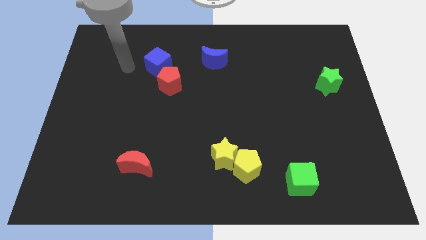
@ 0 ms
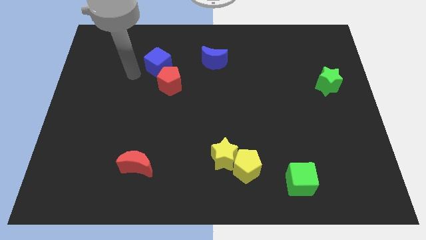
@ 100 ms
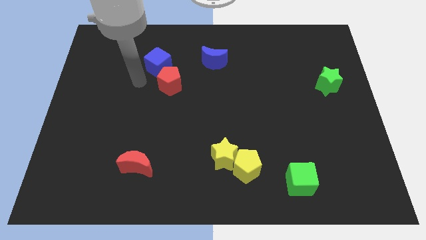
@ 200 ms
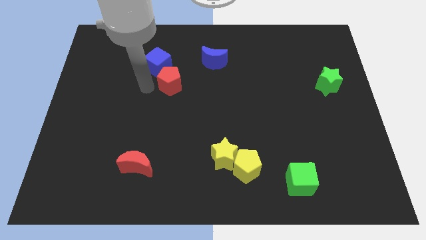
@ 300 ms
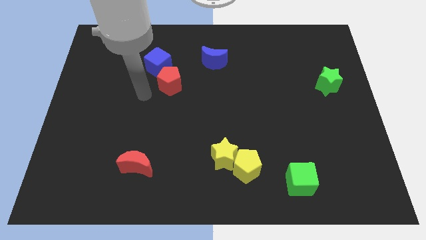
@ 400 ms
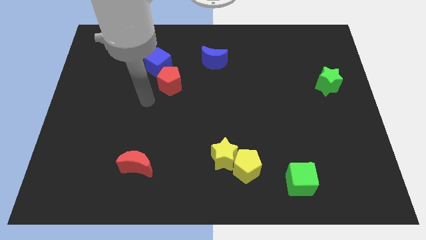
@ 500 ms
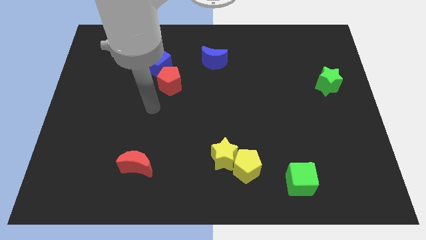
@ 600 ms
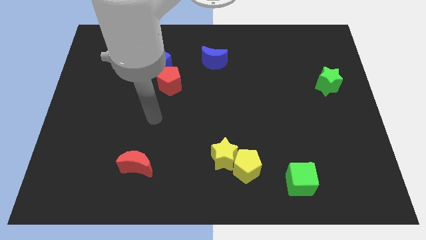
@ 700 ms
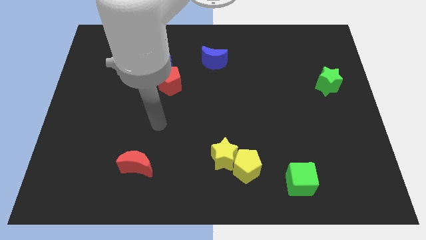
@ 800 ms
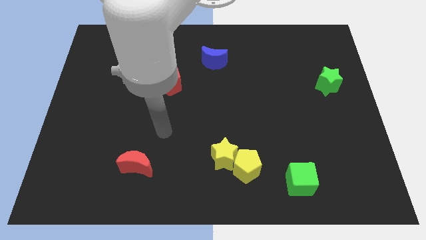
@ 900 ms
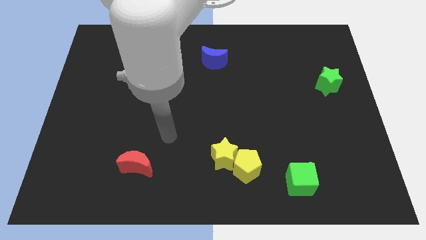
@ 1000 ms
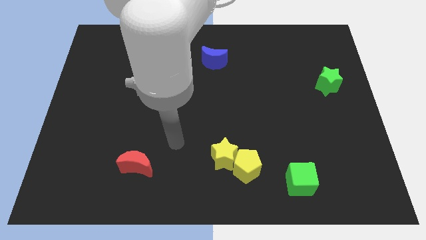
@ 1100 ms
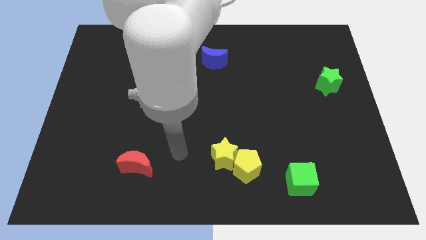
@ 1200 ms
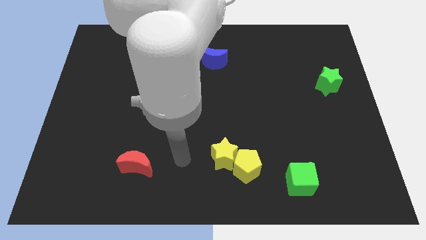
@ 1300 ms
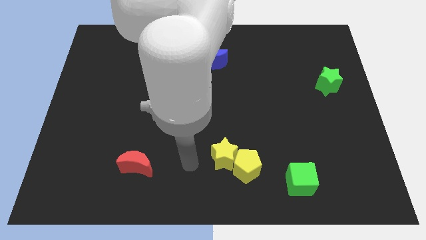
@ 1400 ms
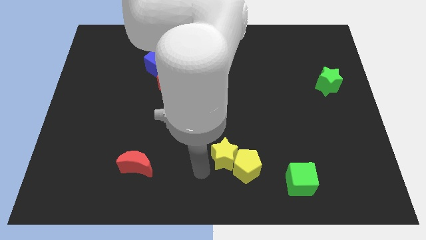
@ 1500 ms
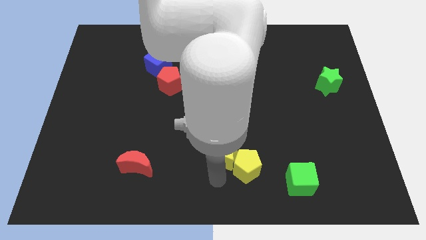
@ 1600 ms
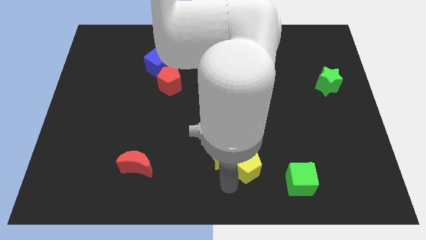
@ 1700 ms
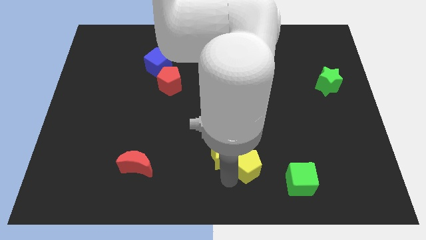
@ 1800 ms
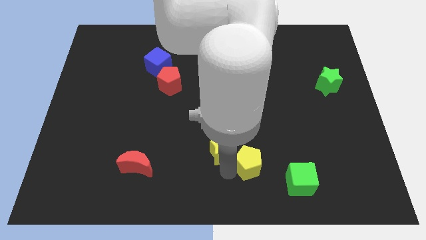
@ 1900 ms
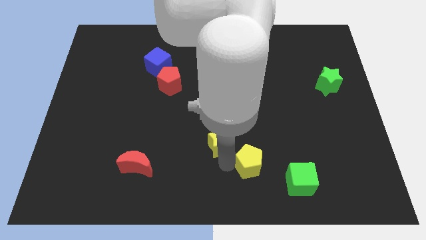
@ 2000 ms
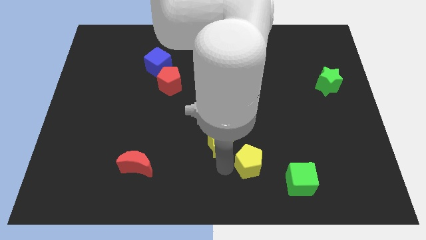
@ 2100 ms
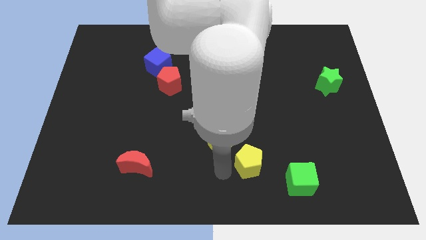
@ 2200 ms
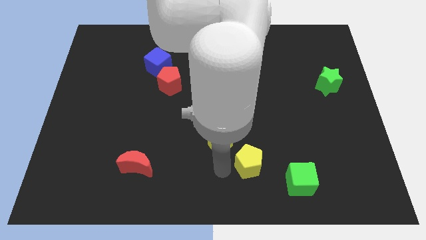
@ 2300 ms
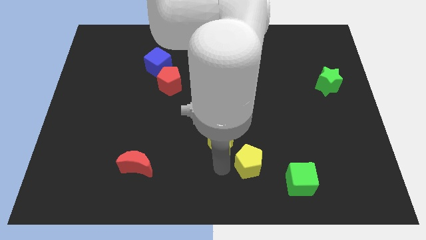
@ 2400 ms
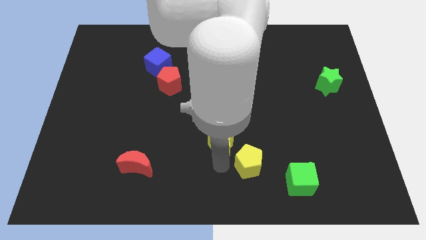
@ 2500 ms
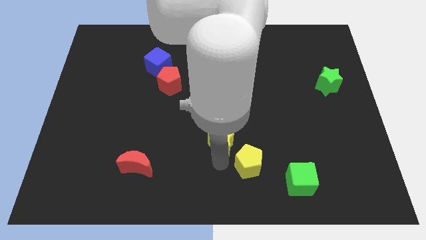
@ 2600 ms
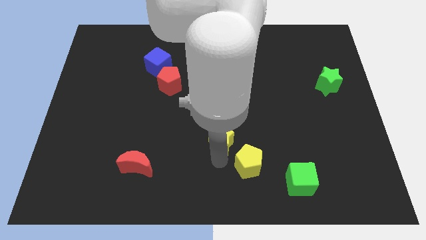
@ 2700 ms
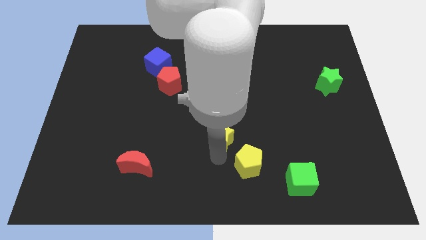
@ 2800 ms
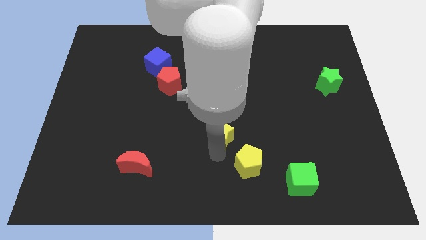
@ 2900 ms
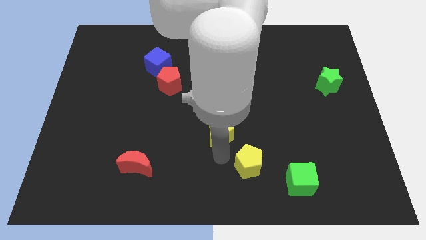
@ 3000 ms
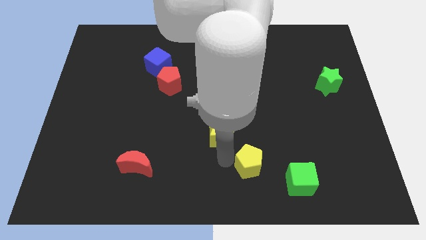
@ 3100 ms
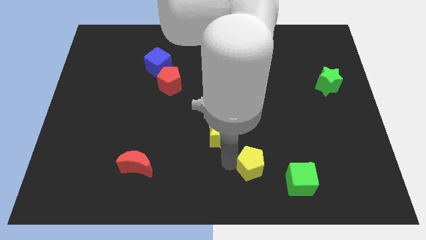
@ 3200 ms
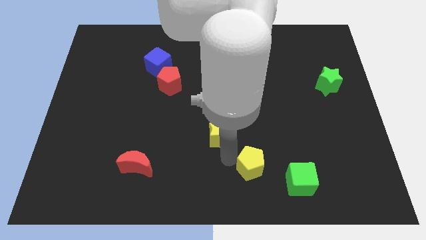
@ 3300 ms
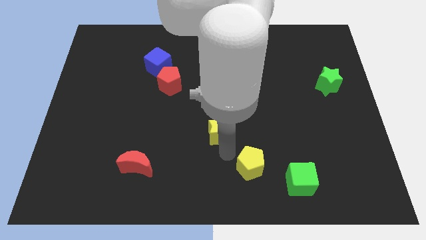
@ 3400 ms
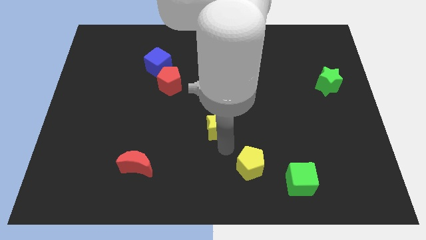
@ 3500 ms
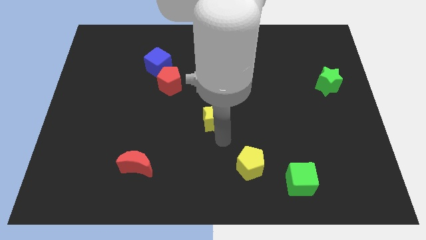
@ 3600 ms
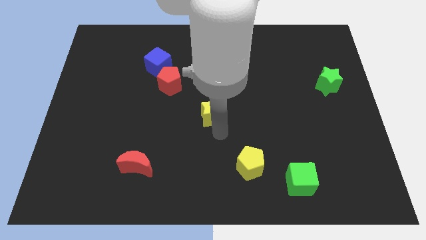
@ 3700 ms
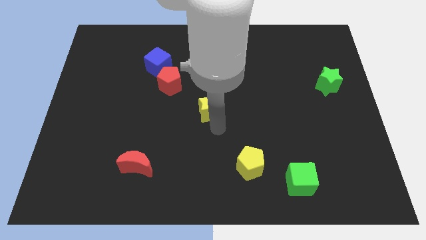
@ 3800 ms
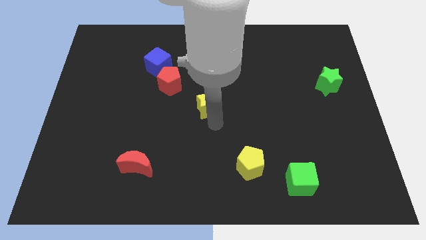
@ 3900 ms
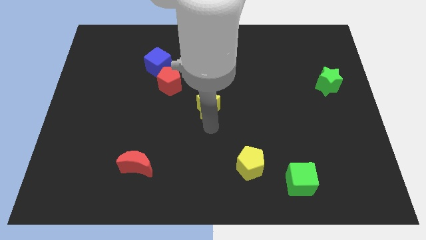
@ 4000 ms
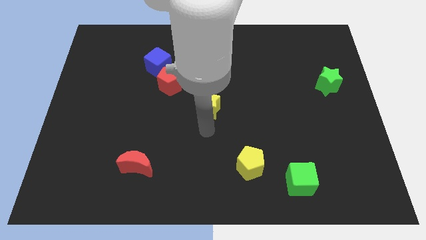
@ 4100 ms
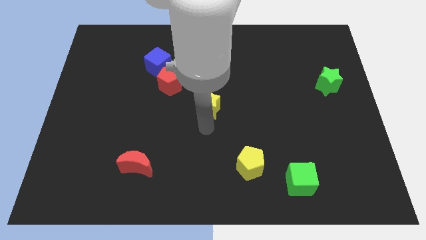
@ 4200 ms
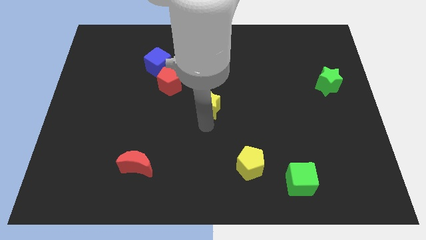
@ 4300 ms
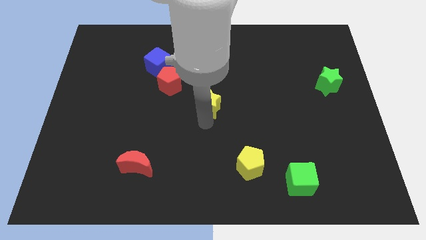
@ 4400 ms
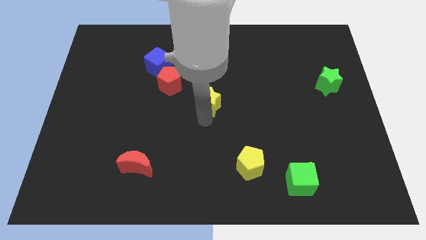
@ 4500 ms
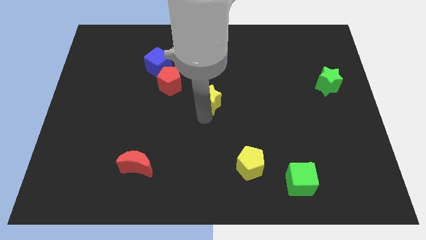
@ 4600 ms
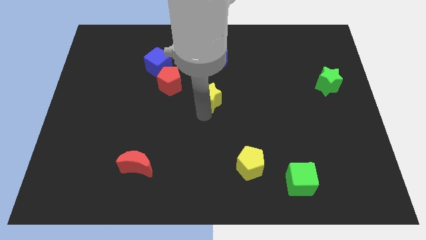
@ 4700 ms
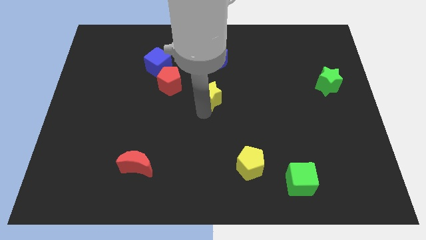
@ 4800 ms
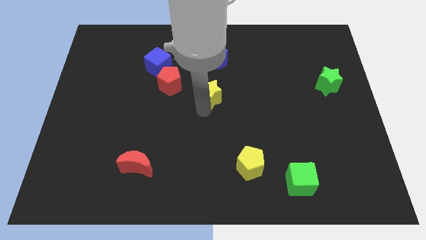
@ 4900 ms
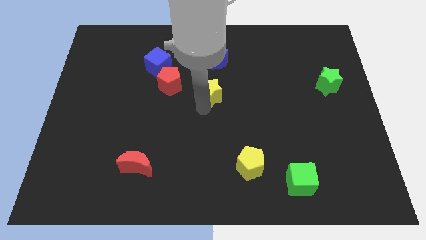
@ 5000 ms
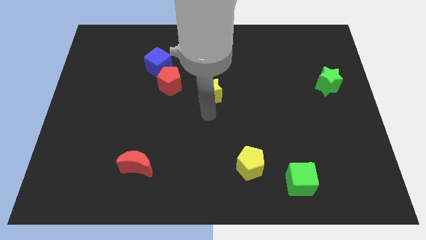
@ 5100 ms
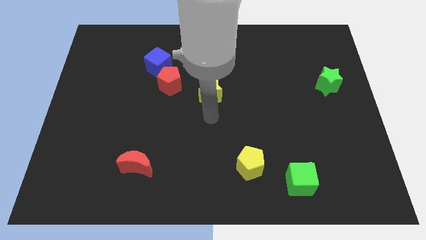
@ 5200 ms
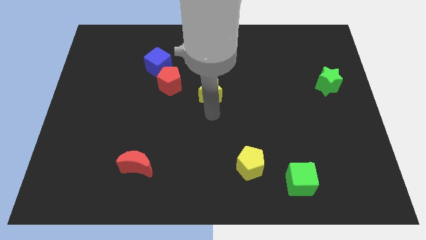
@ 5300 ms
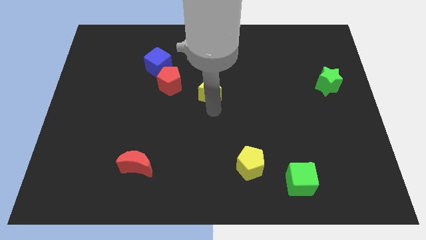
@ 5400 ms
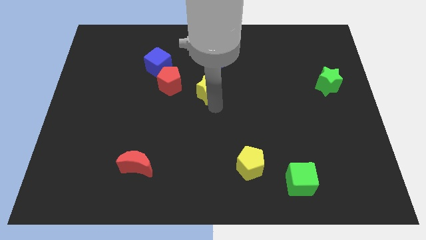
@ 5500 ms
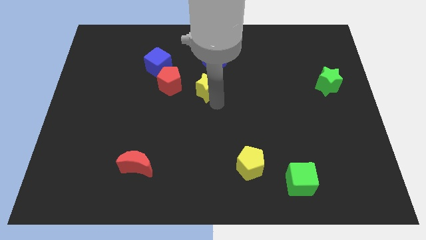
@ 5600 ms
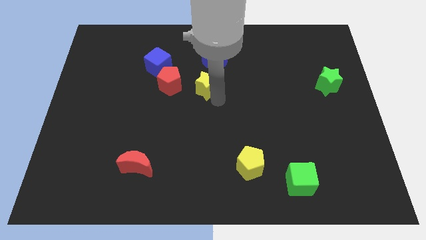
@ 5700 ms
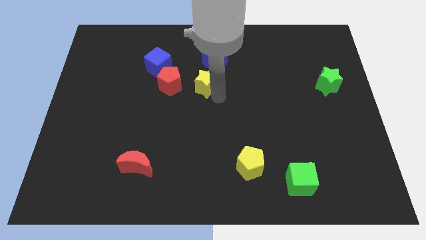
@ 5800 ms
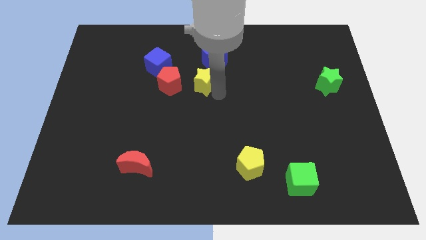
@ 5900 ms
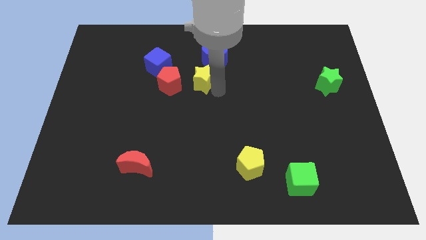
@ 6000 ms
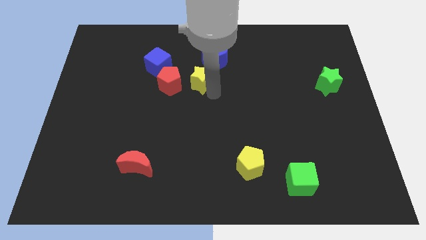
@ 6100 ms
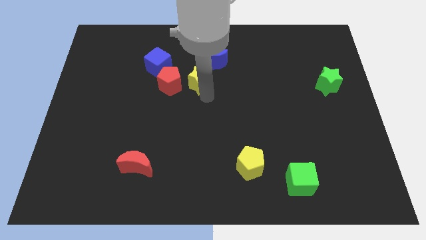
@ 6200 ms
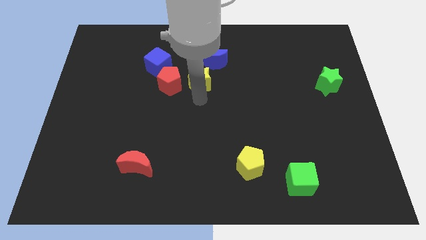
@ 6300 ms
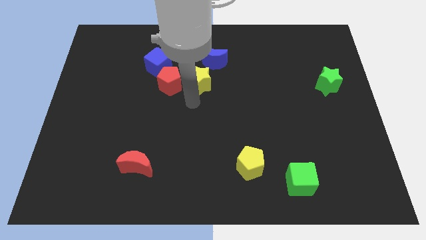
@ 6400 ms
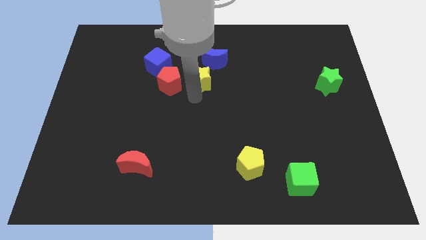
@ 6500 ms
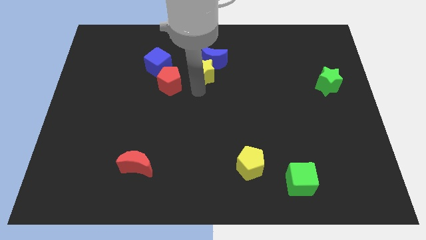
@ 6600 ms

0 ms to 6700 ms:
move the yellow star towards the blue moon
